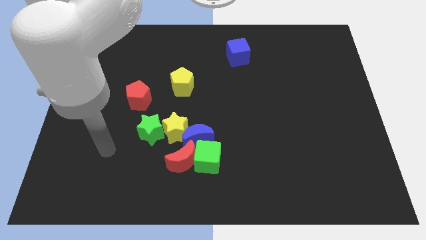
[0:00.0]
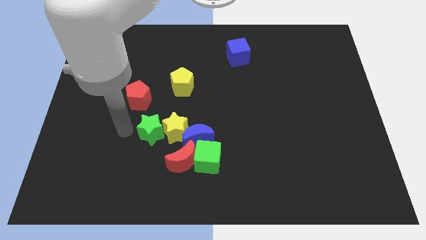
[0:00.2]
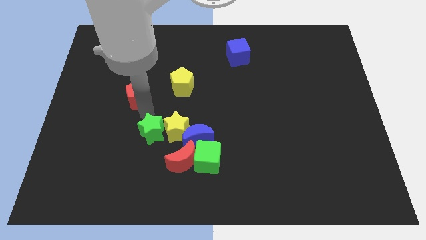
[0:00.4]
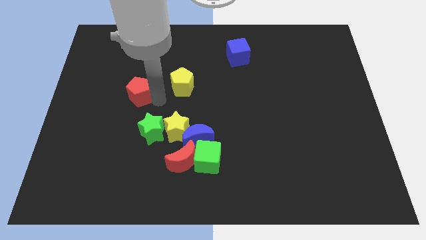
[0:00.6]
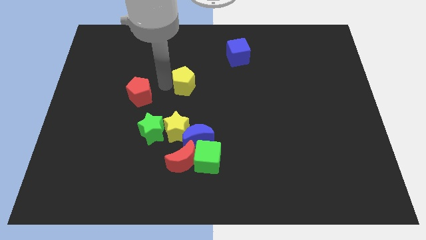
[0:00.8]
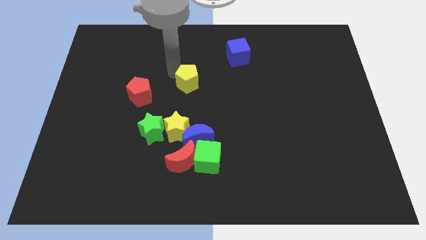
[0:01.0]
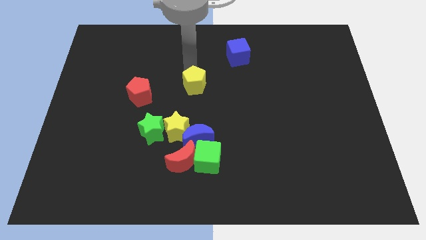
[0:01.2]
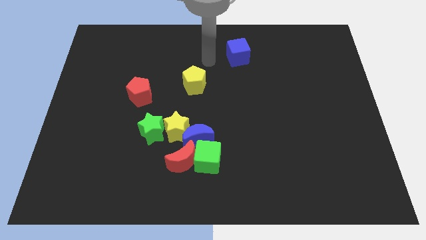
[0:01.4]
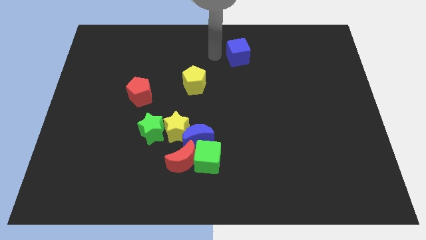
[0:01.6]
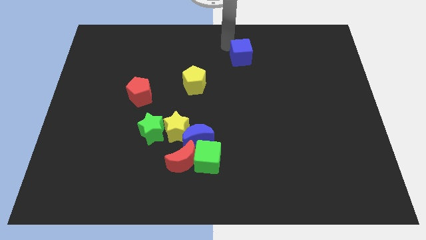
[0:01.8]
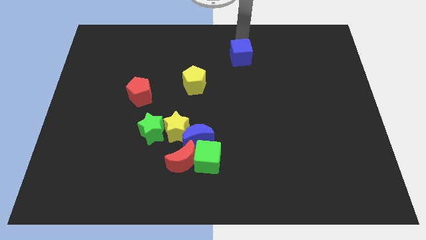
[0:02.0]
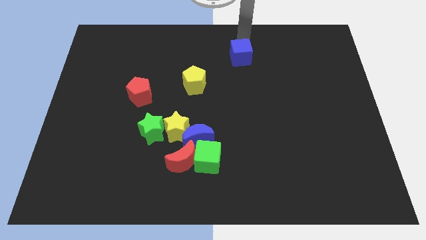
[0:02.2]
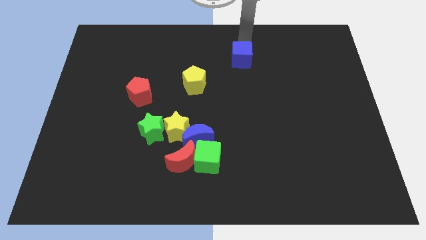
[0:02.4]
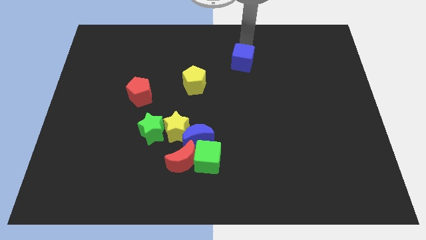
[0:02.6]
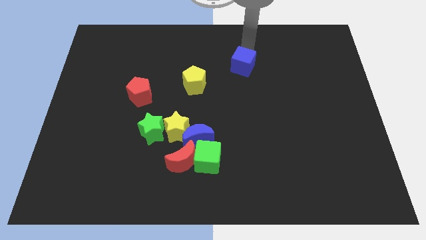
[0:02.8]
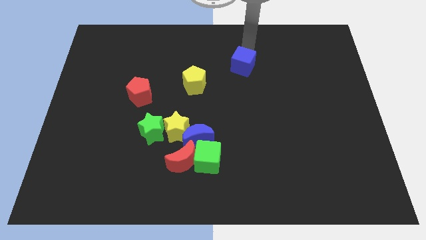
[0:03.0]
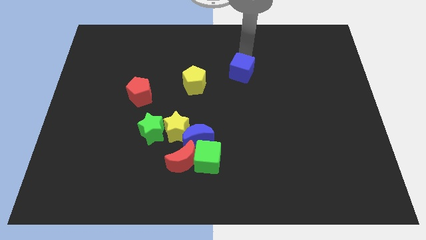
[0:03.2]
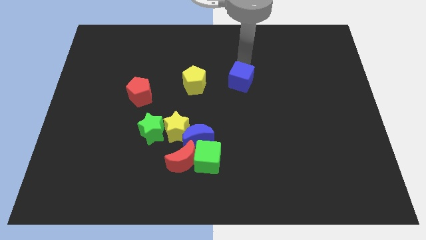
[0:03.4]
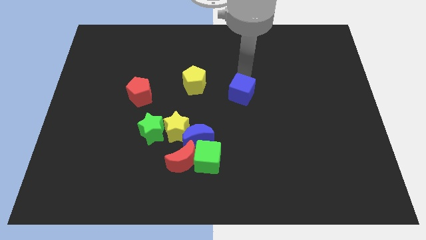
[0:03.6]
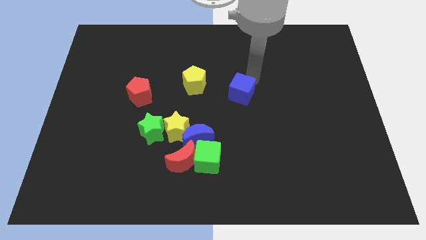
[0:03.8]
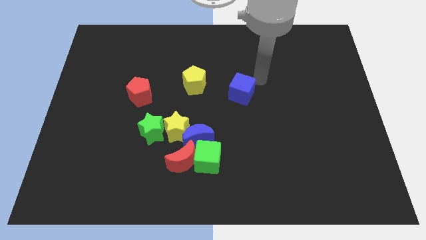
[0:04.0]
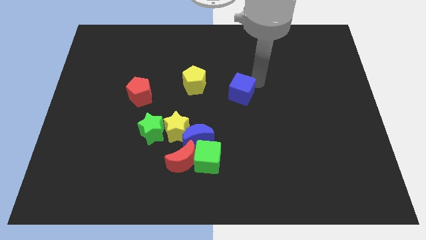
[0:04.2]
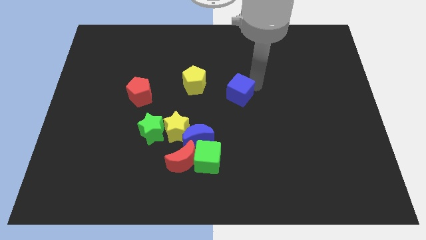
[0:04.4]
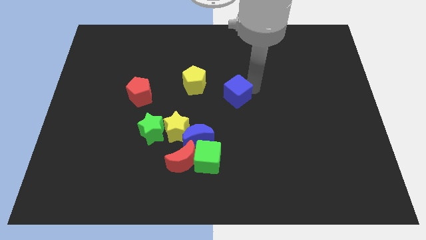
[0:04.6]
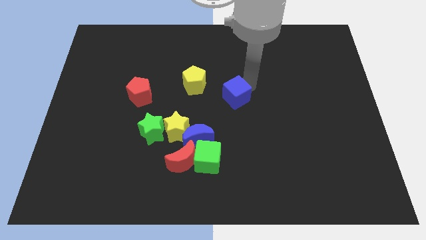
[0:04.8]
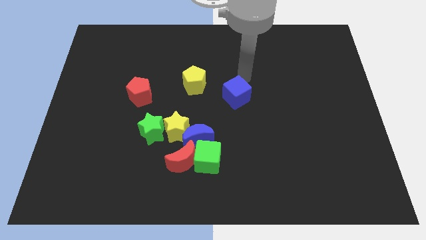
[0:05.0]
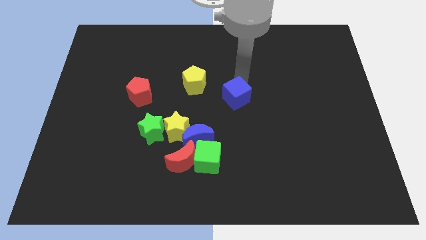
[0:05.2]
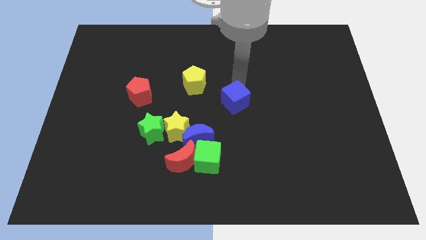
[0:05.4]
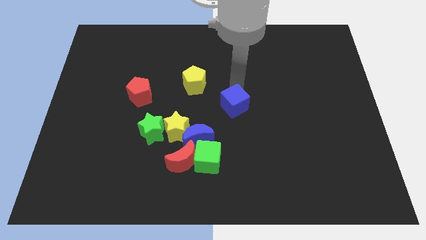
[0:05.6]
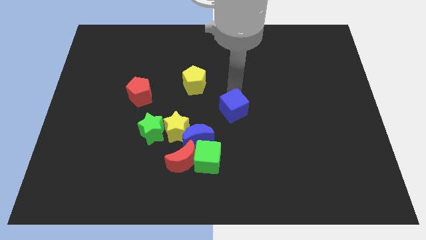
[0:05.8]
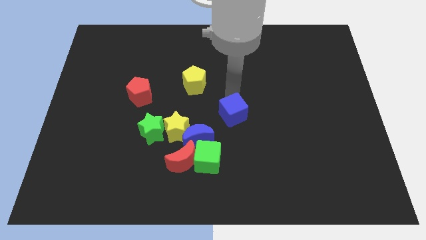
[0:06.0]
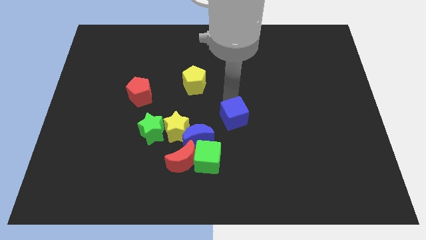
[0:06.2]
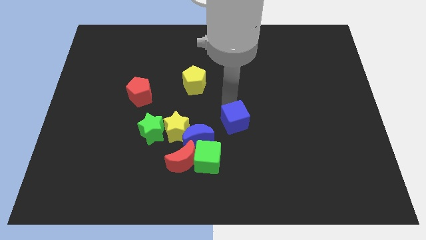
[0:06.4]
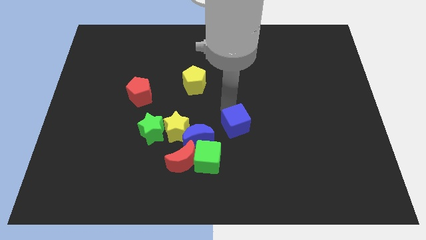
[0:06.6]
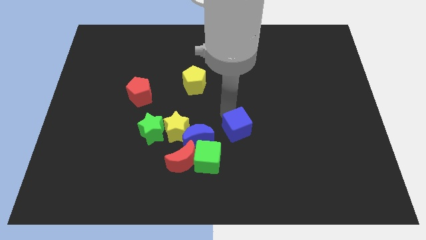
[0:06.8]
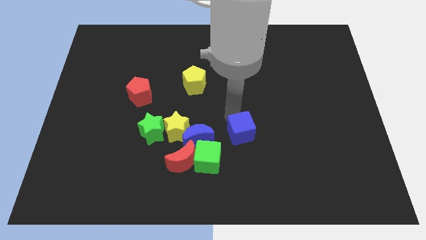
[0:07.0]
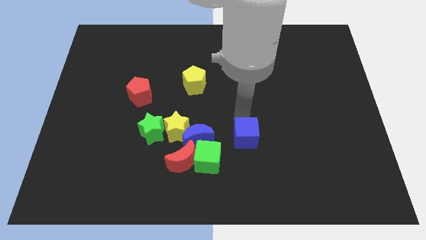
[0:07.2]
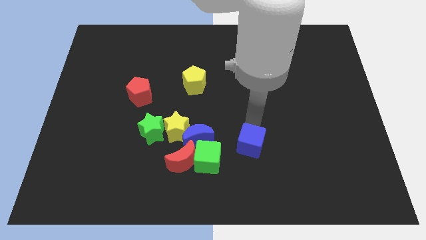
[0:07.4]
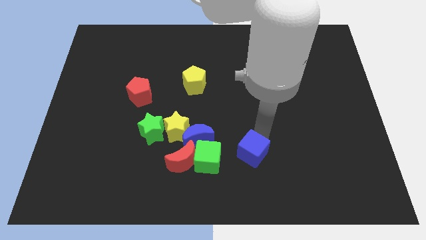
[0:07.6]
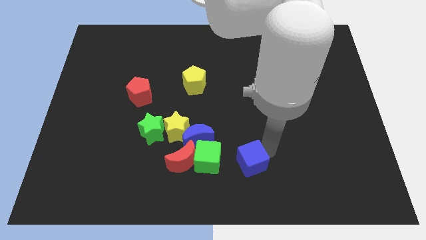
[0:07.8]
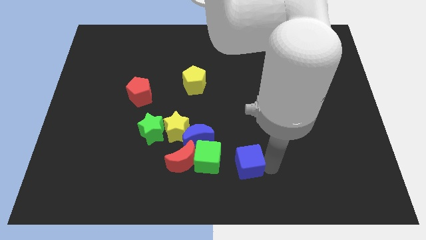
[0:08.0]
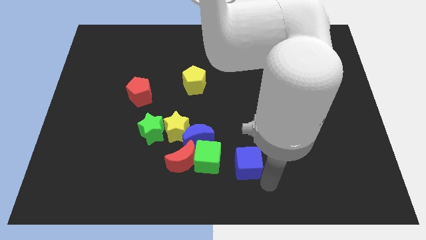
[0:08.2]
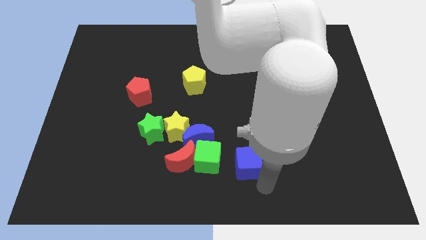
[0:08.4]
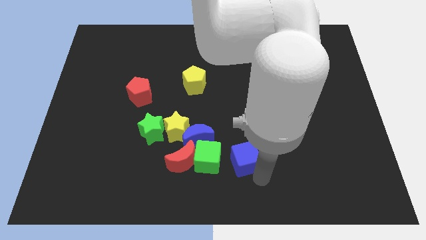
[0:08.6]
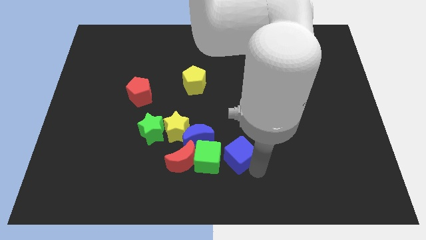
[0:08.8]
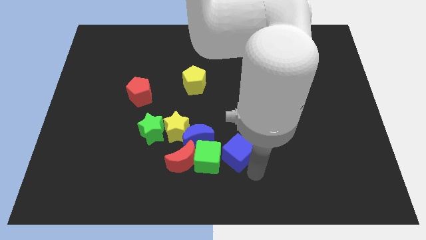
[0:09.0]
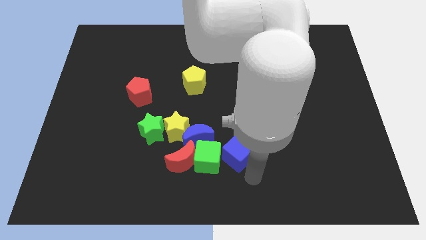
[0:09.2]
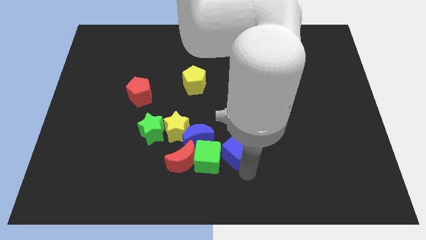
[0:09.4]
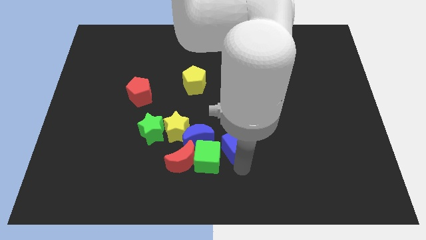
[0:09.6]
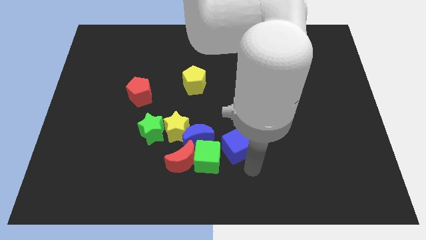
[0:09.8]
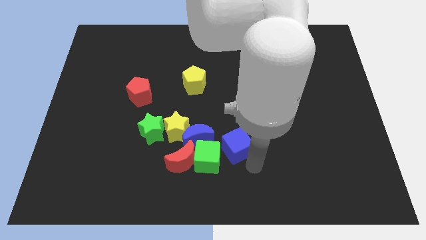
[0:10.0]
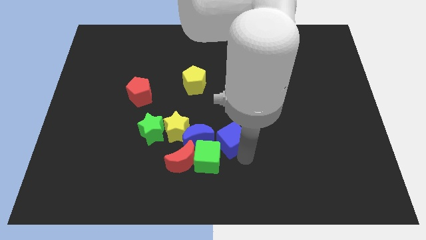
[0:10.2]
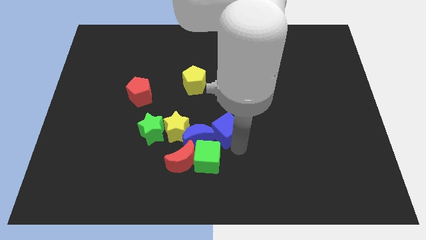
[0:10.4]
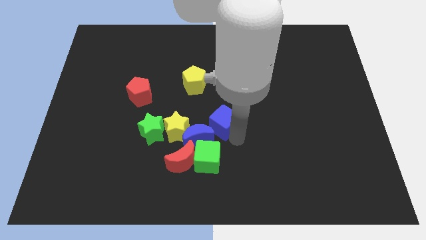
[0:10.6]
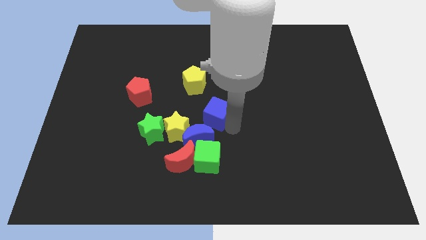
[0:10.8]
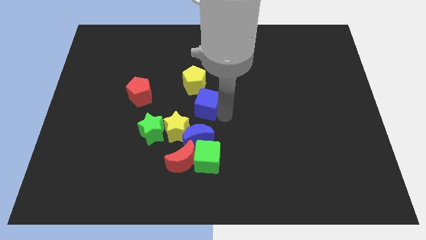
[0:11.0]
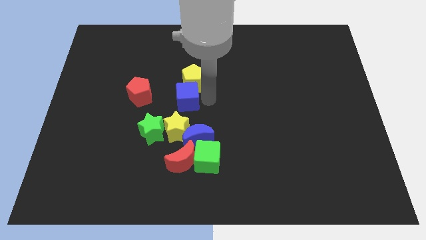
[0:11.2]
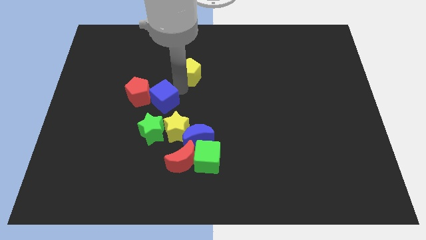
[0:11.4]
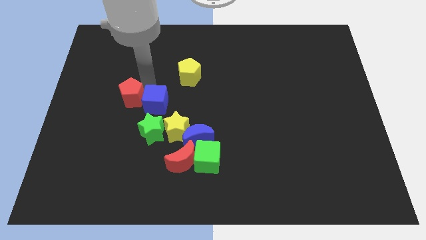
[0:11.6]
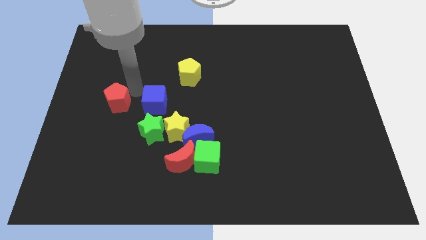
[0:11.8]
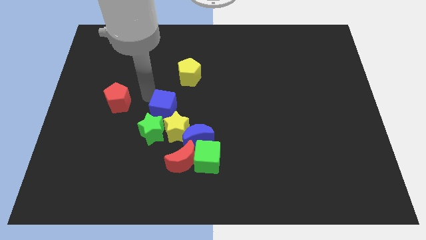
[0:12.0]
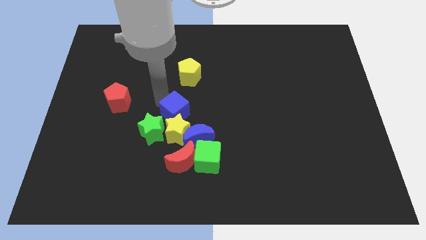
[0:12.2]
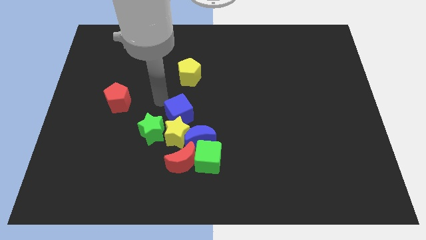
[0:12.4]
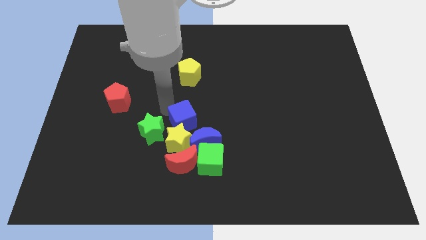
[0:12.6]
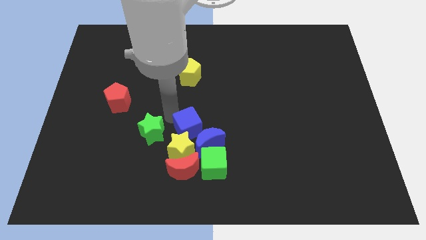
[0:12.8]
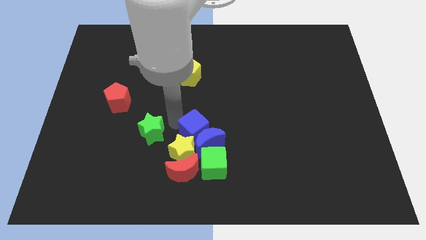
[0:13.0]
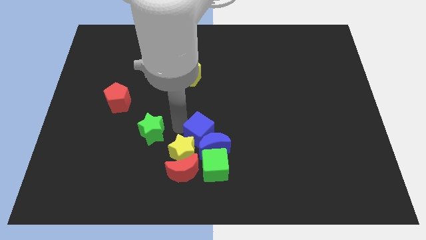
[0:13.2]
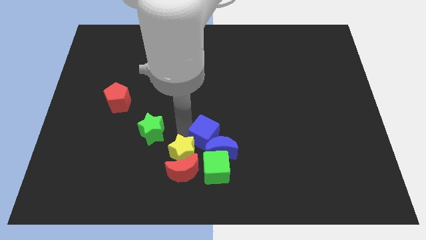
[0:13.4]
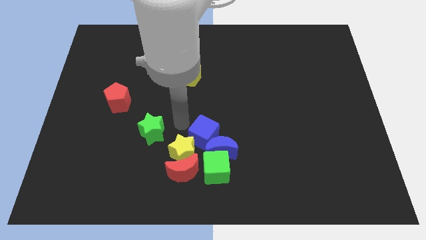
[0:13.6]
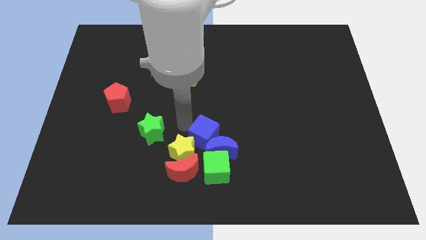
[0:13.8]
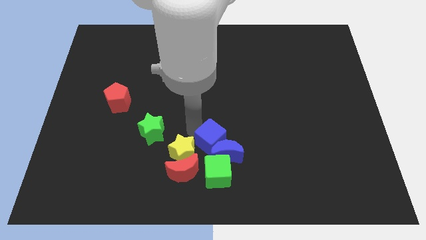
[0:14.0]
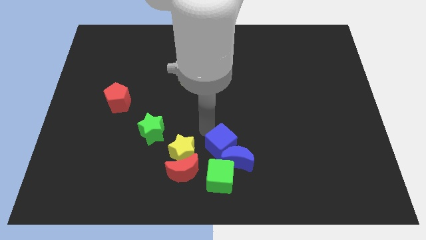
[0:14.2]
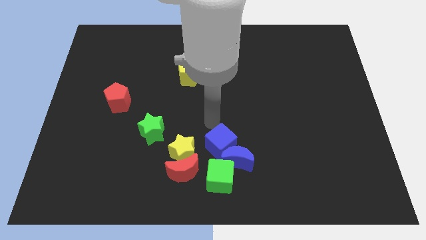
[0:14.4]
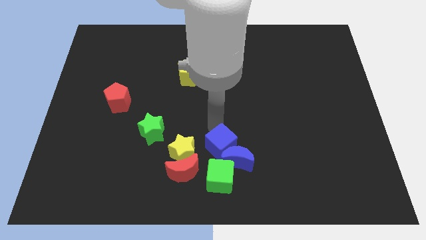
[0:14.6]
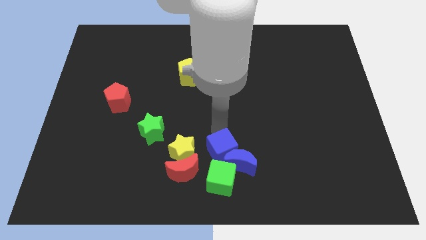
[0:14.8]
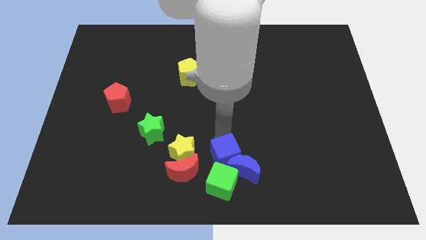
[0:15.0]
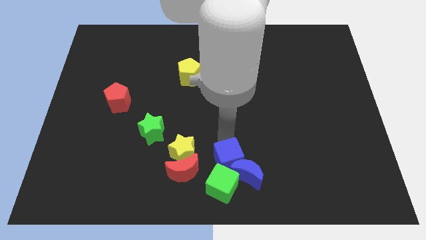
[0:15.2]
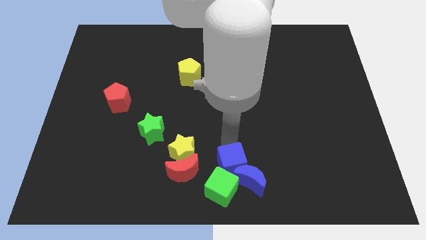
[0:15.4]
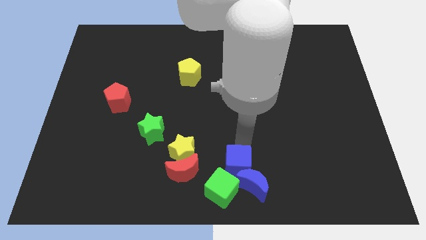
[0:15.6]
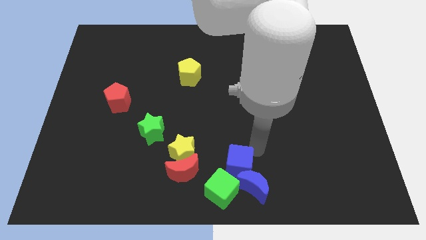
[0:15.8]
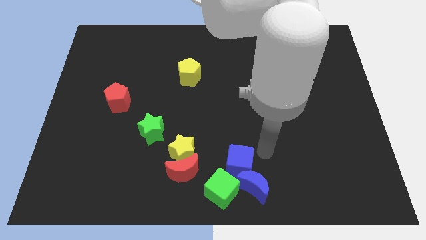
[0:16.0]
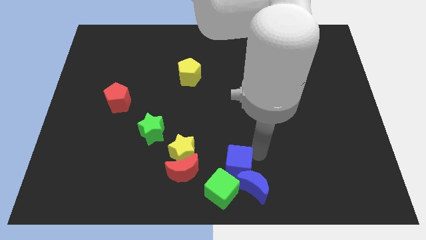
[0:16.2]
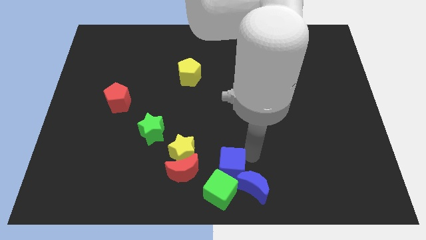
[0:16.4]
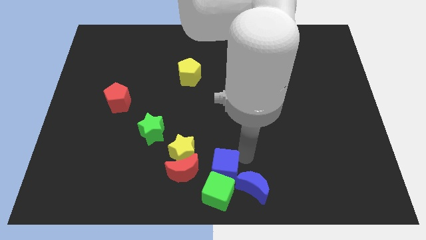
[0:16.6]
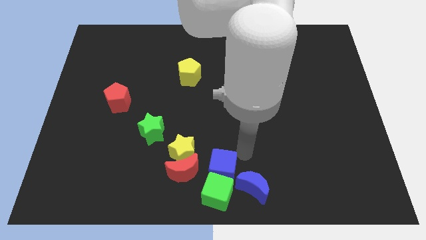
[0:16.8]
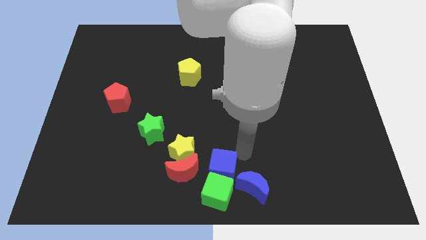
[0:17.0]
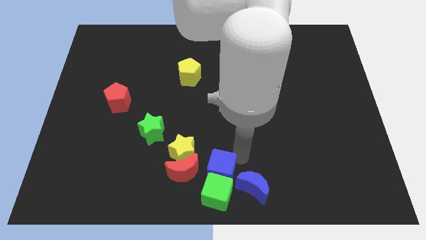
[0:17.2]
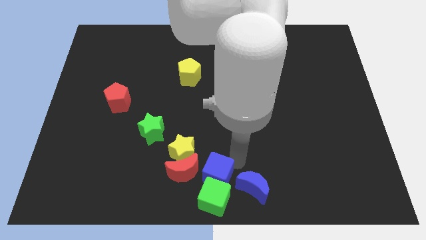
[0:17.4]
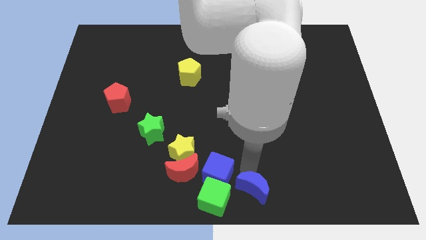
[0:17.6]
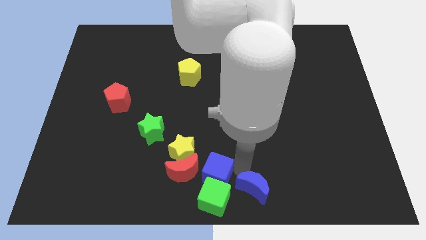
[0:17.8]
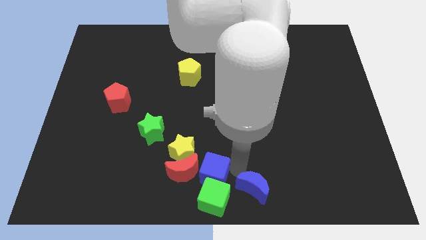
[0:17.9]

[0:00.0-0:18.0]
slide the blue cube to the red moon
